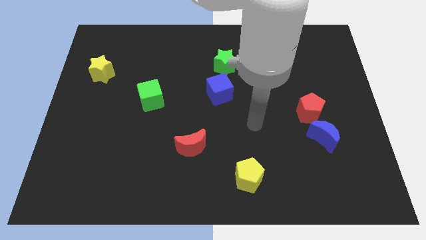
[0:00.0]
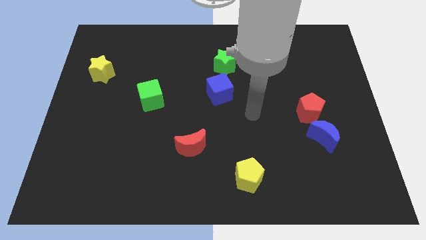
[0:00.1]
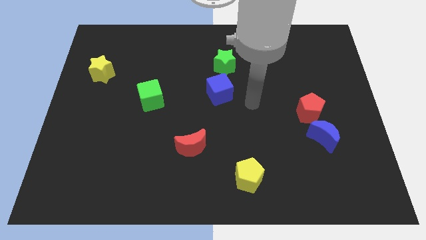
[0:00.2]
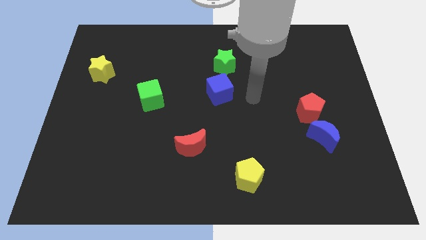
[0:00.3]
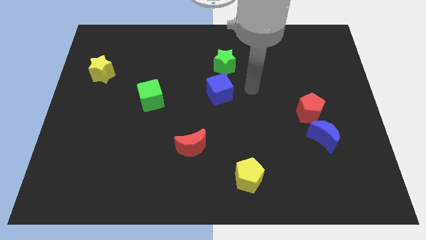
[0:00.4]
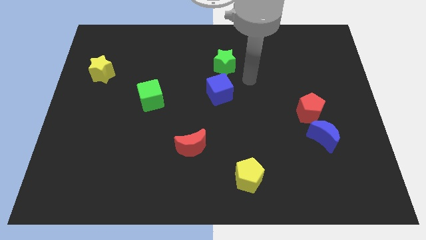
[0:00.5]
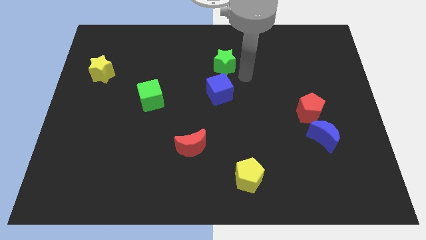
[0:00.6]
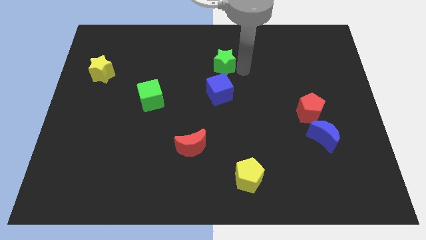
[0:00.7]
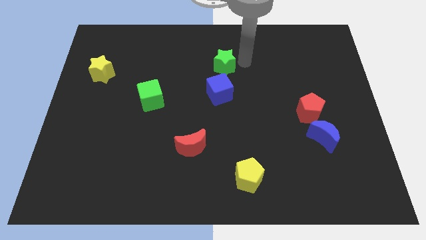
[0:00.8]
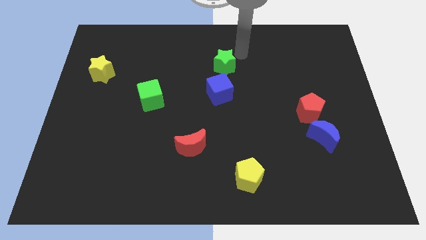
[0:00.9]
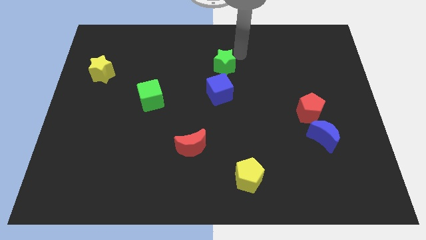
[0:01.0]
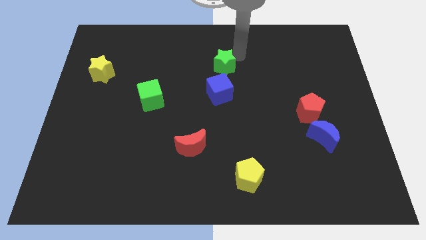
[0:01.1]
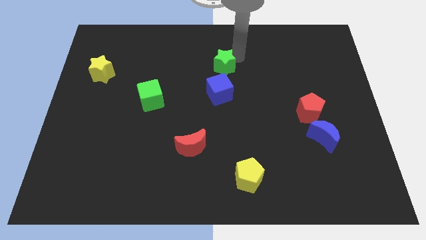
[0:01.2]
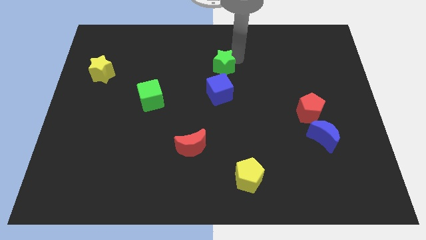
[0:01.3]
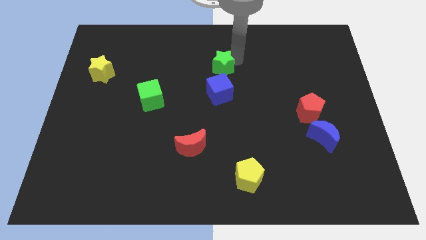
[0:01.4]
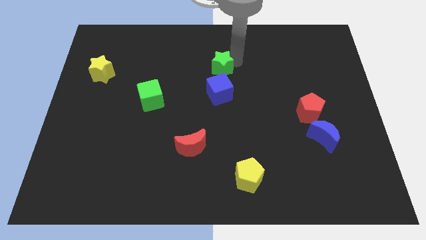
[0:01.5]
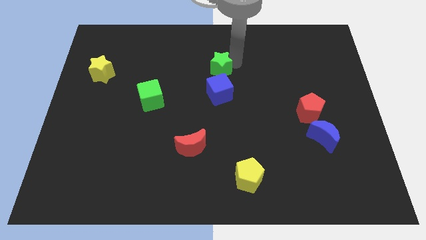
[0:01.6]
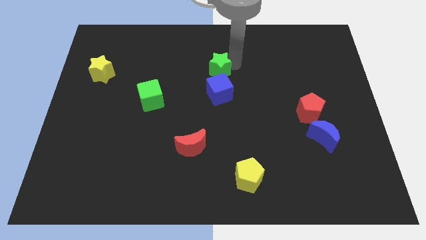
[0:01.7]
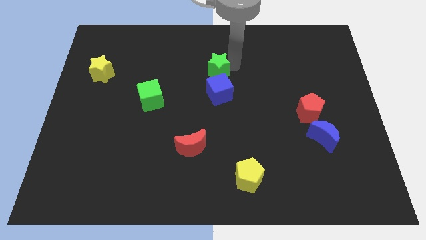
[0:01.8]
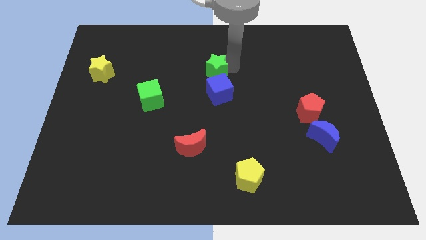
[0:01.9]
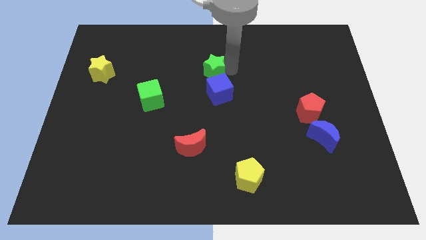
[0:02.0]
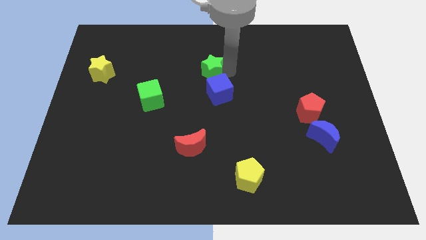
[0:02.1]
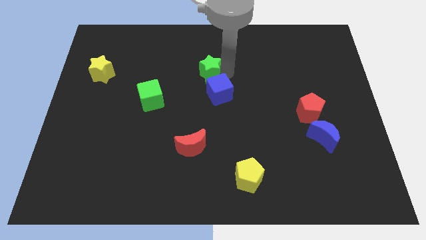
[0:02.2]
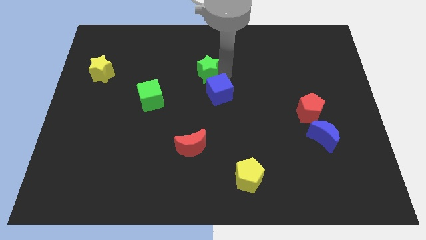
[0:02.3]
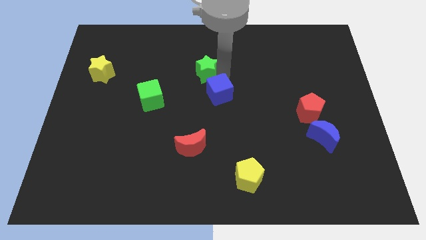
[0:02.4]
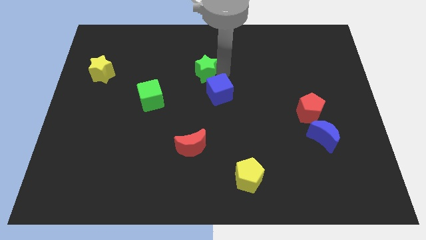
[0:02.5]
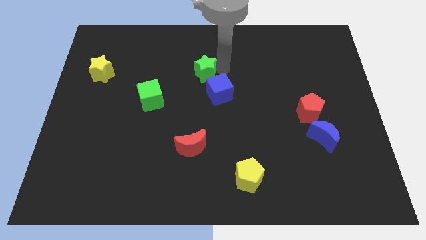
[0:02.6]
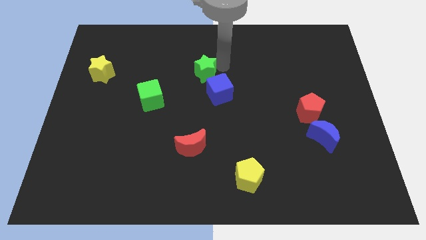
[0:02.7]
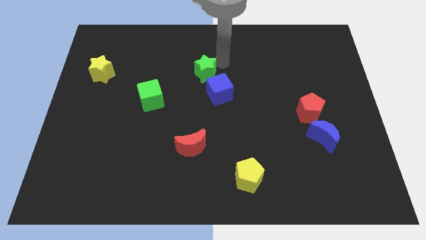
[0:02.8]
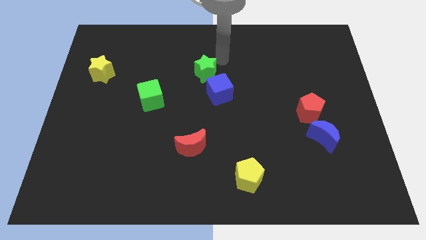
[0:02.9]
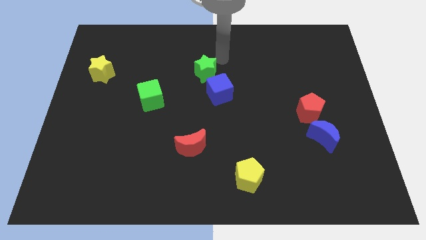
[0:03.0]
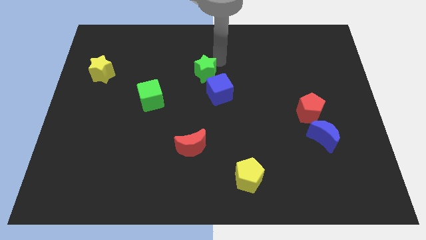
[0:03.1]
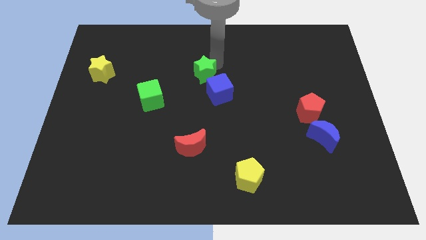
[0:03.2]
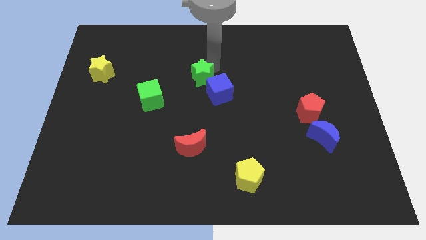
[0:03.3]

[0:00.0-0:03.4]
slightly slide the green star down and to the left

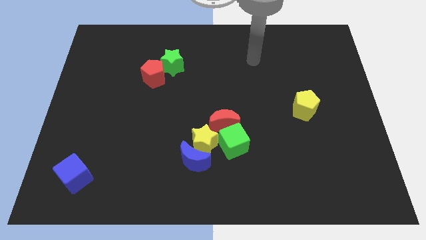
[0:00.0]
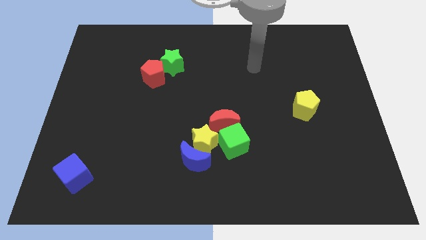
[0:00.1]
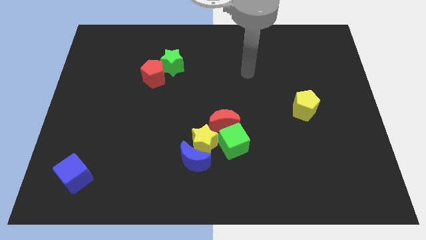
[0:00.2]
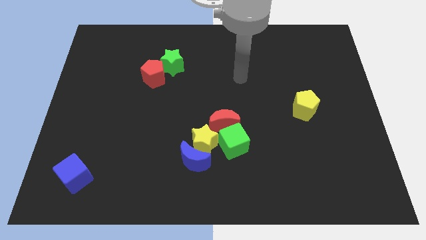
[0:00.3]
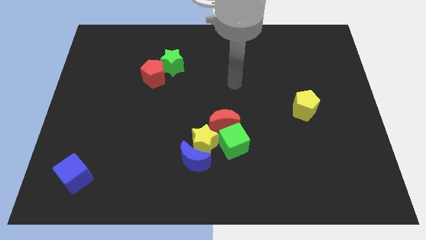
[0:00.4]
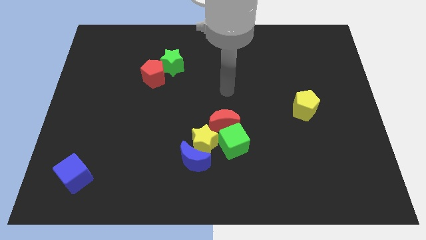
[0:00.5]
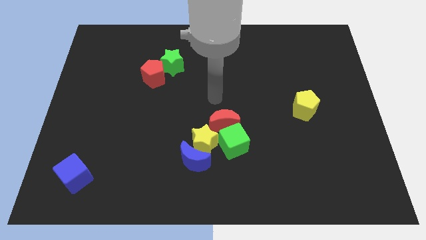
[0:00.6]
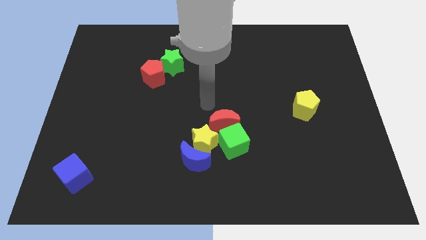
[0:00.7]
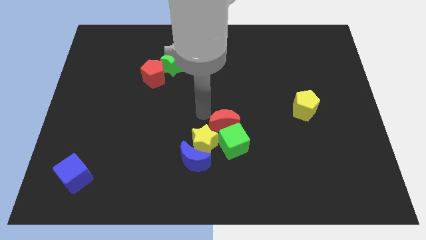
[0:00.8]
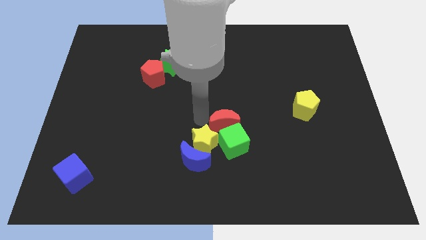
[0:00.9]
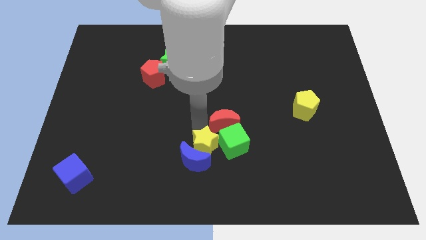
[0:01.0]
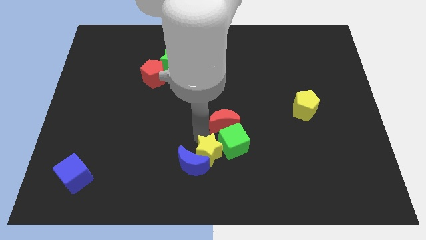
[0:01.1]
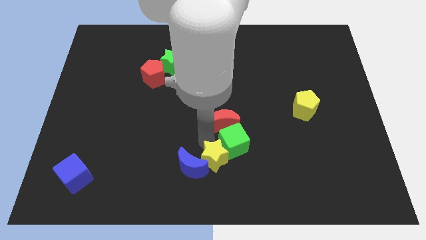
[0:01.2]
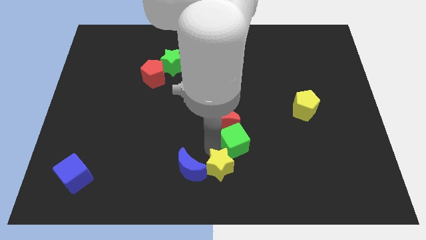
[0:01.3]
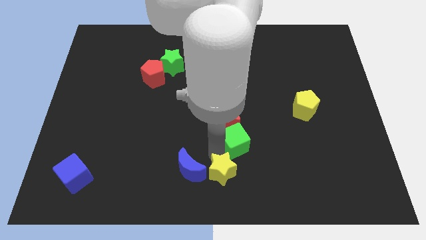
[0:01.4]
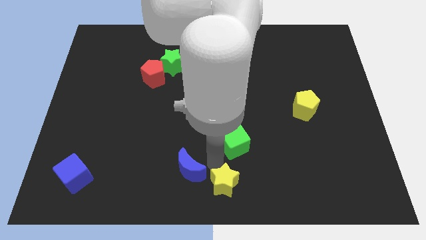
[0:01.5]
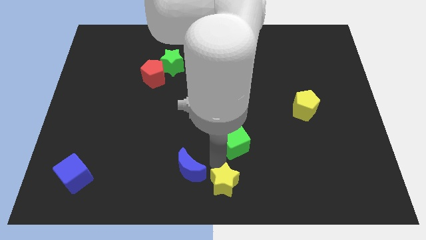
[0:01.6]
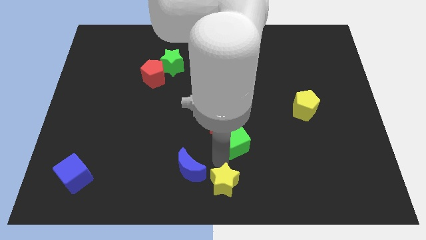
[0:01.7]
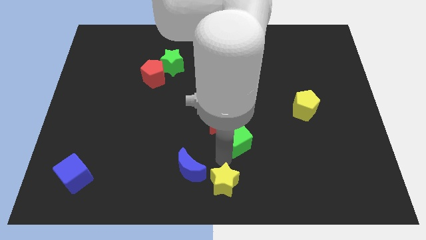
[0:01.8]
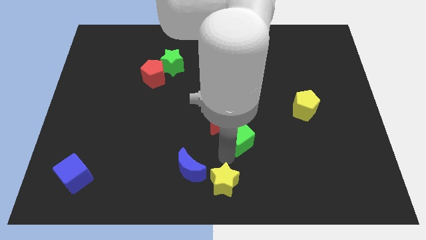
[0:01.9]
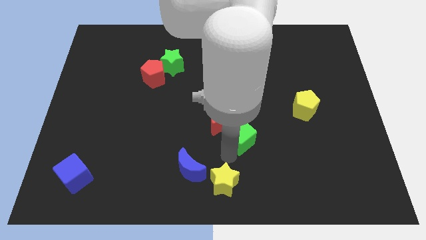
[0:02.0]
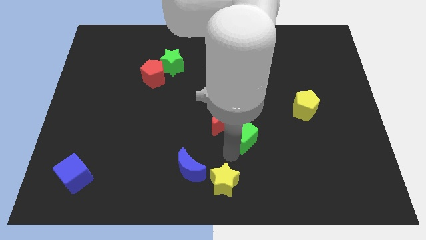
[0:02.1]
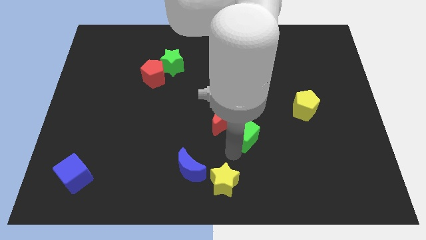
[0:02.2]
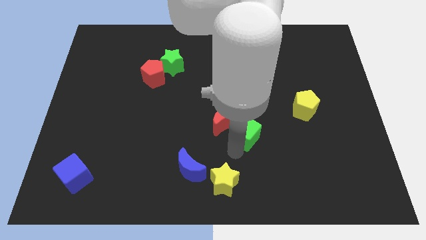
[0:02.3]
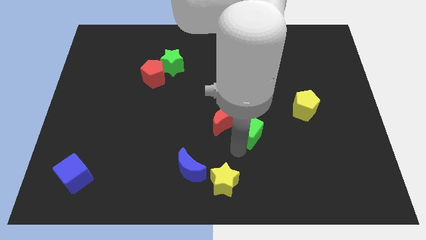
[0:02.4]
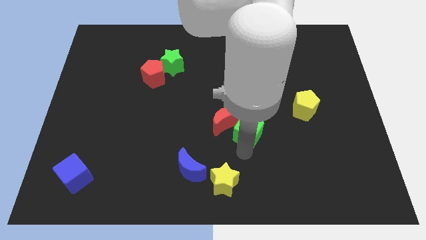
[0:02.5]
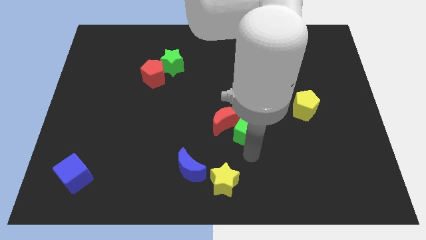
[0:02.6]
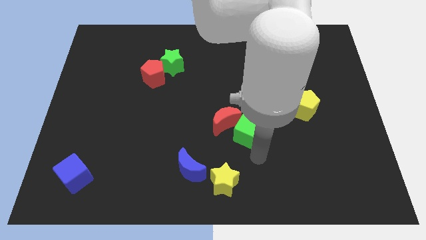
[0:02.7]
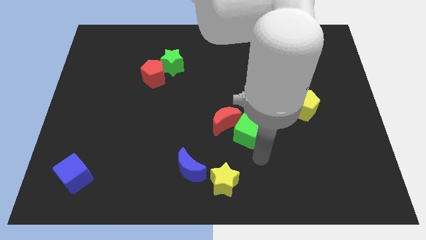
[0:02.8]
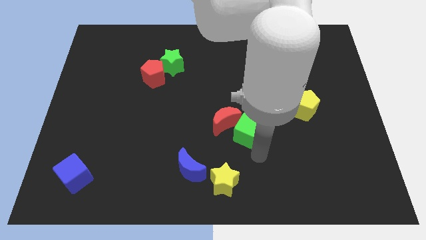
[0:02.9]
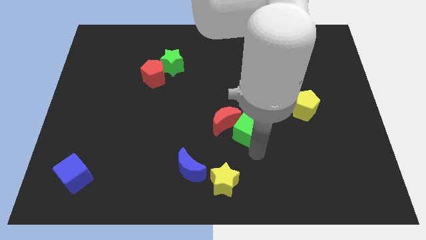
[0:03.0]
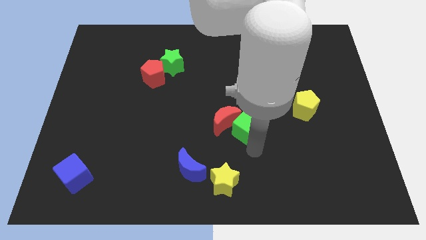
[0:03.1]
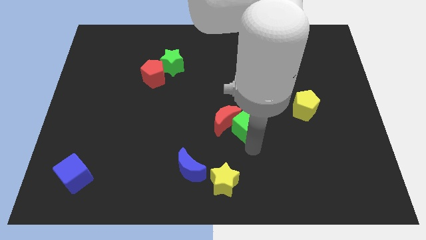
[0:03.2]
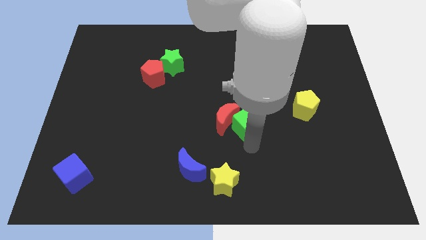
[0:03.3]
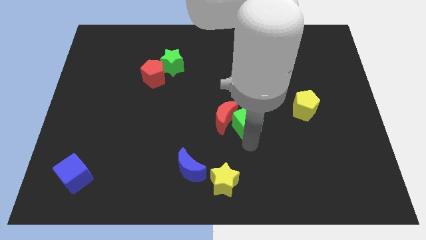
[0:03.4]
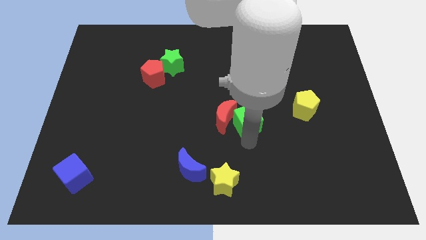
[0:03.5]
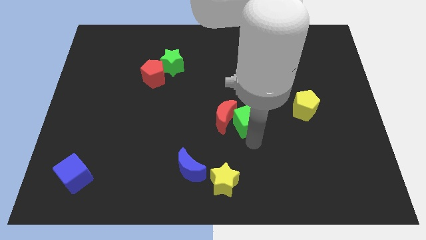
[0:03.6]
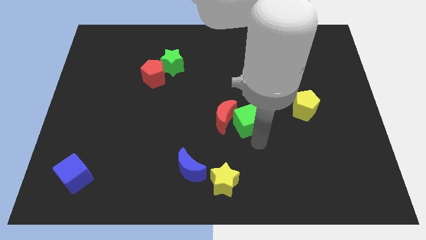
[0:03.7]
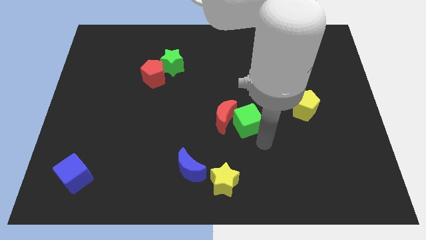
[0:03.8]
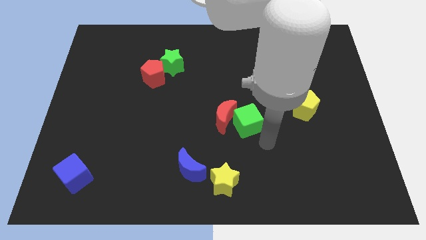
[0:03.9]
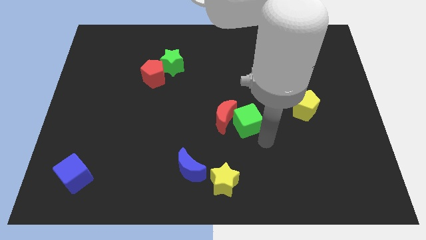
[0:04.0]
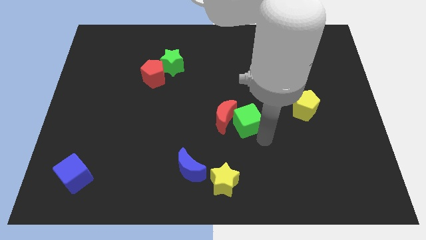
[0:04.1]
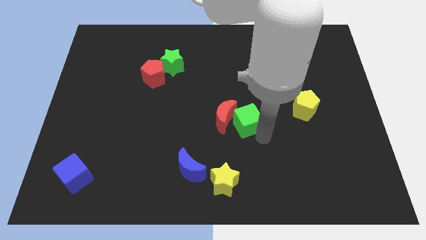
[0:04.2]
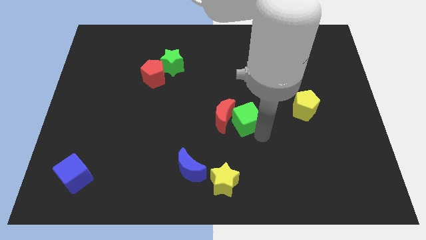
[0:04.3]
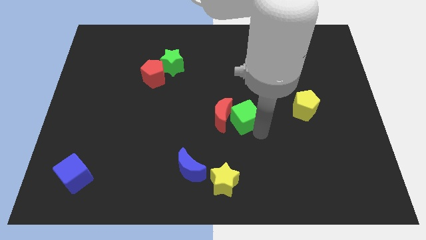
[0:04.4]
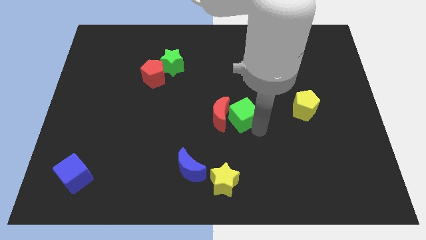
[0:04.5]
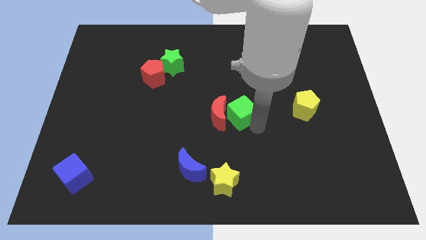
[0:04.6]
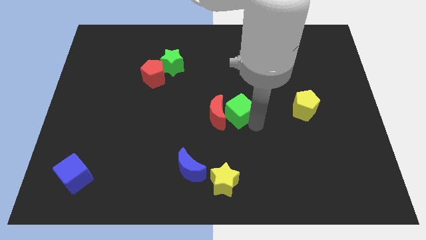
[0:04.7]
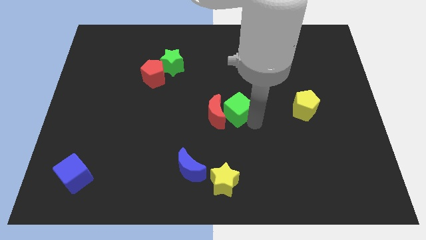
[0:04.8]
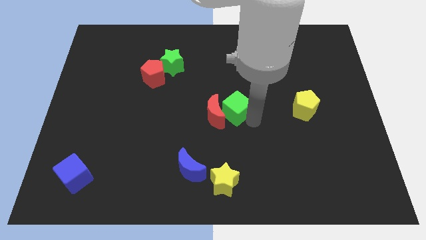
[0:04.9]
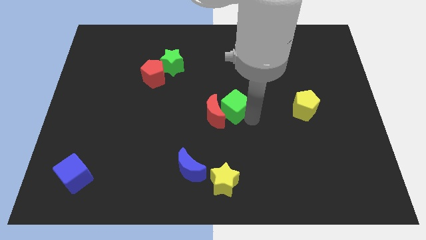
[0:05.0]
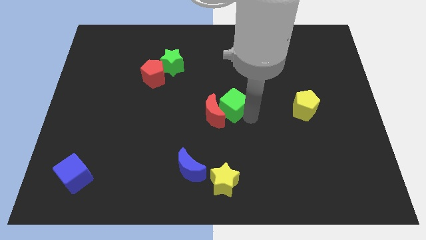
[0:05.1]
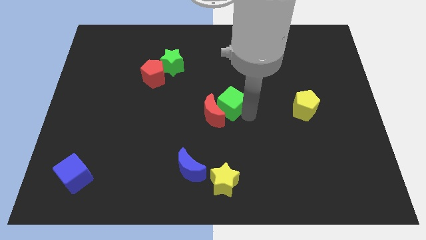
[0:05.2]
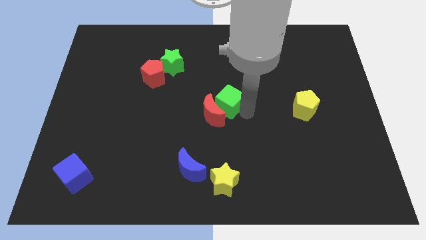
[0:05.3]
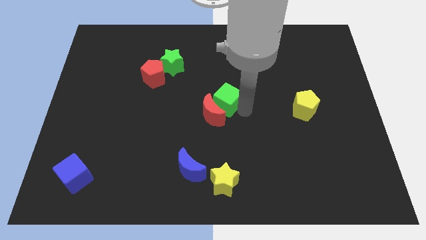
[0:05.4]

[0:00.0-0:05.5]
move the green cube a little bit up and to the left diagonally
